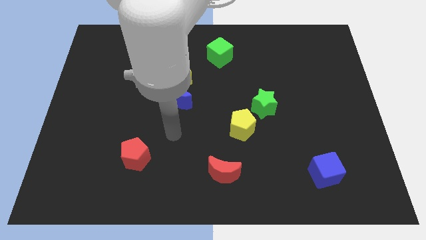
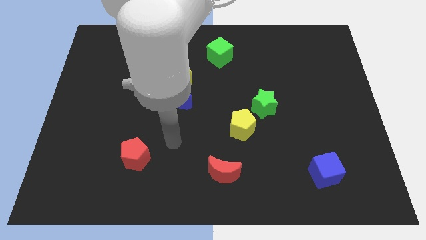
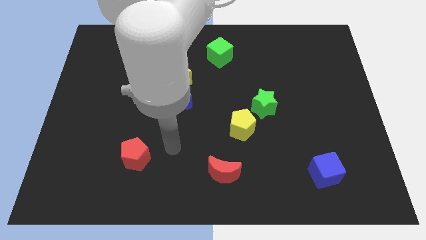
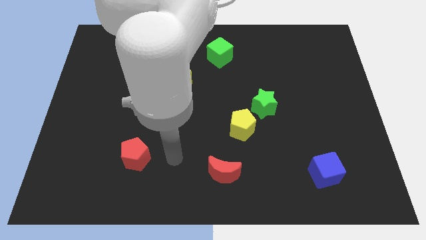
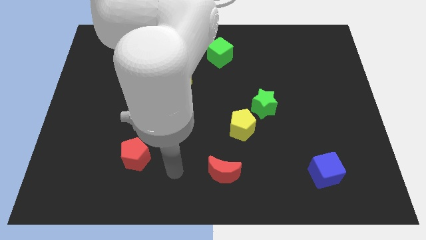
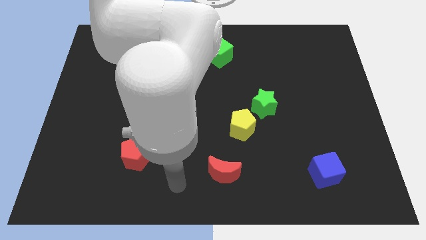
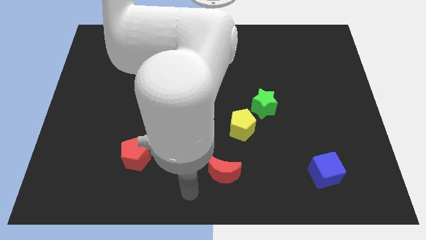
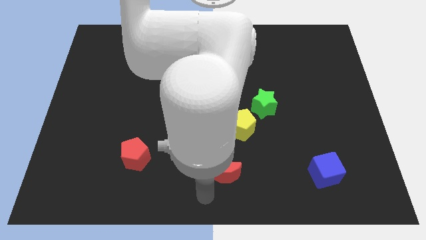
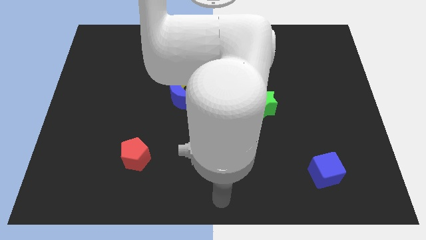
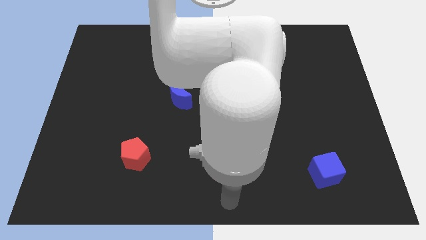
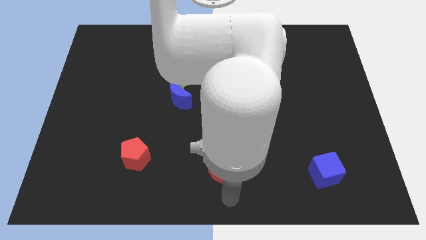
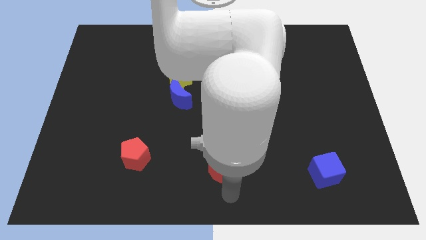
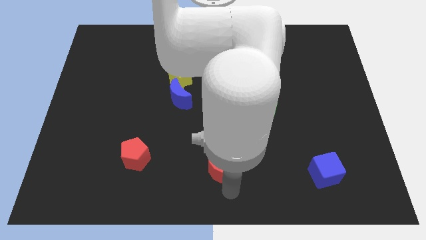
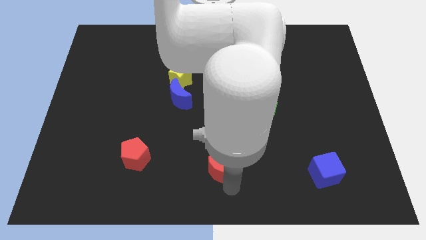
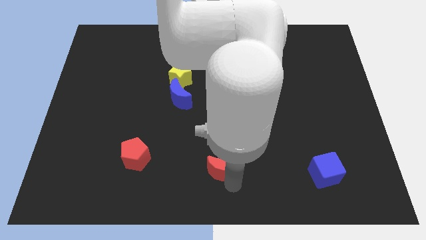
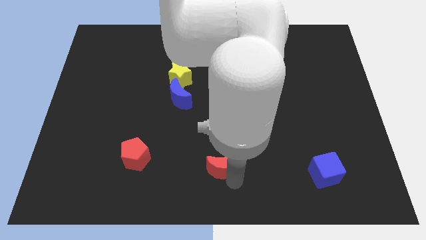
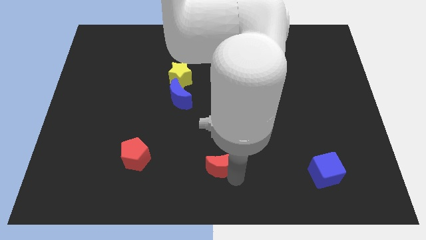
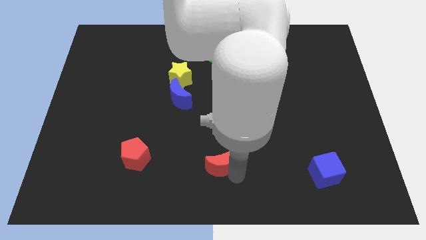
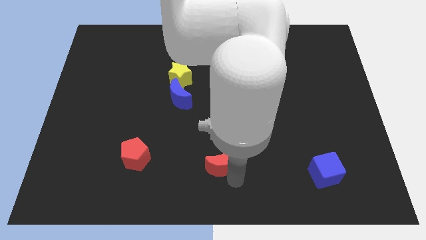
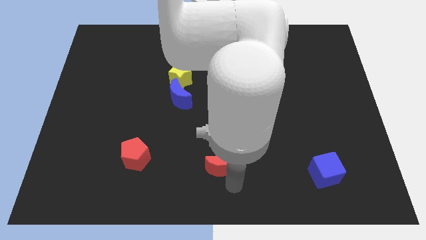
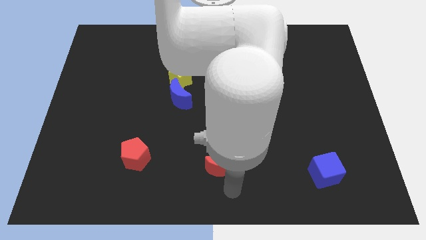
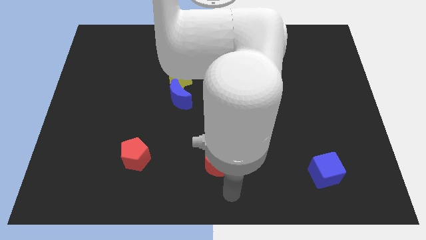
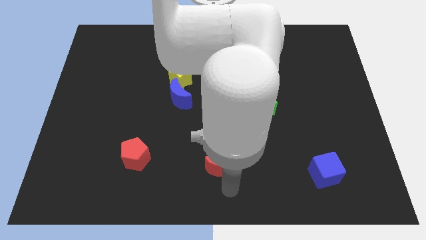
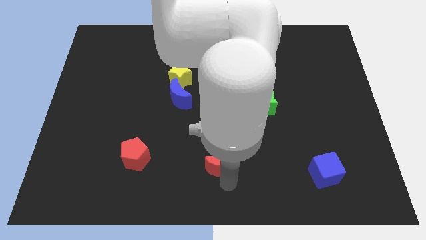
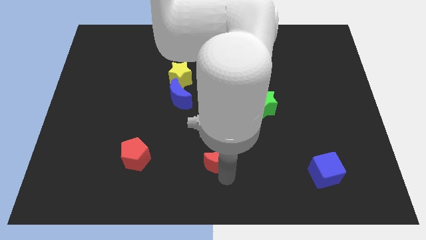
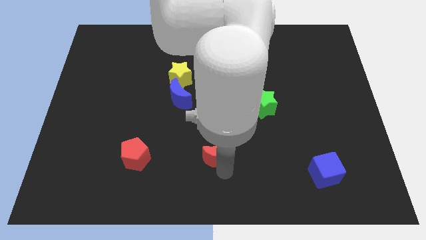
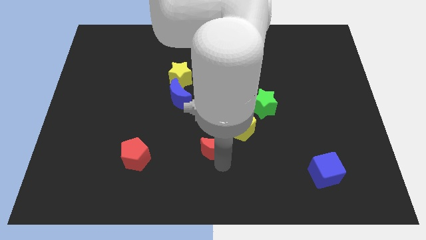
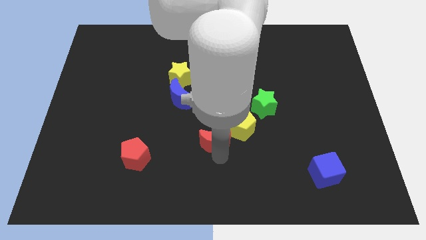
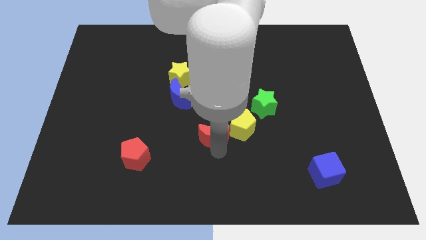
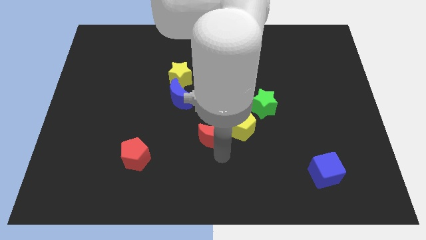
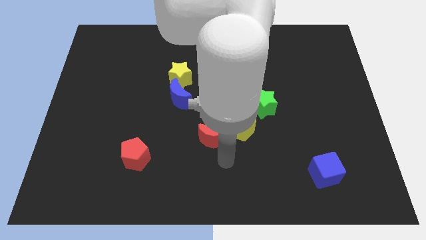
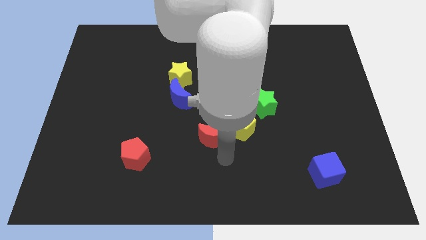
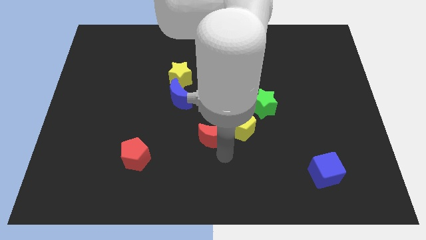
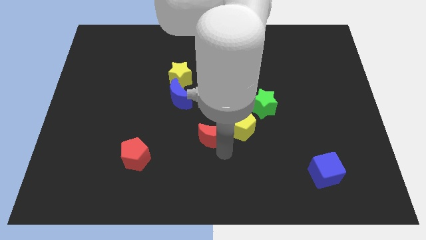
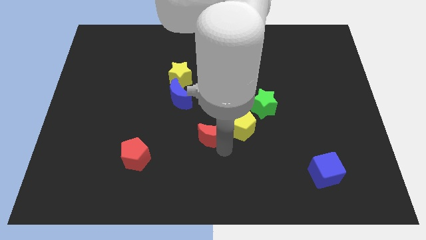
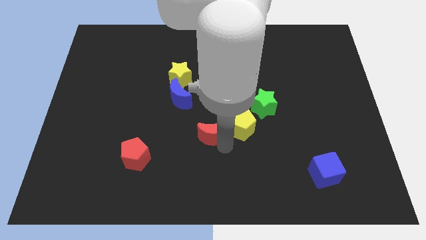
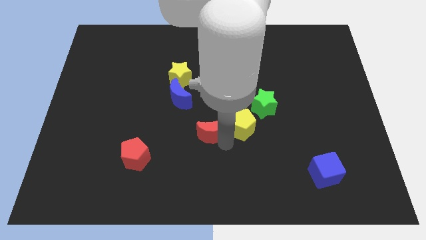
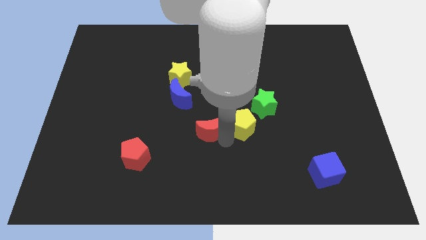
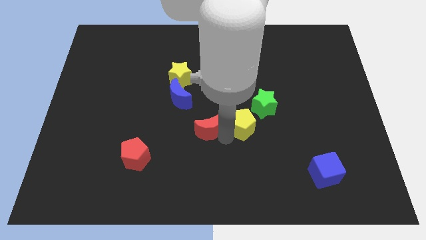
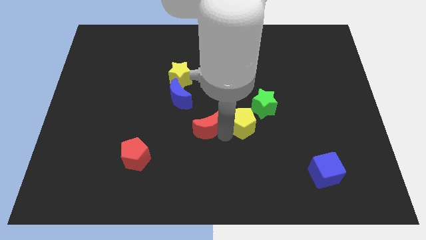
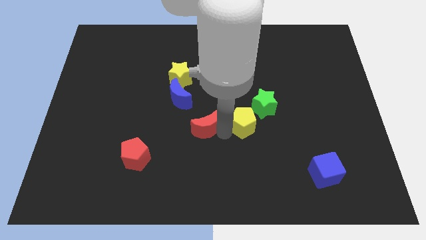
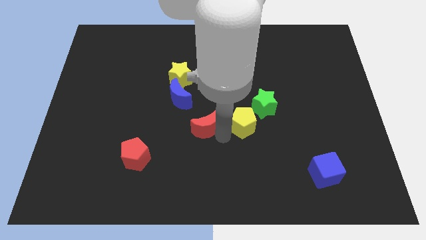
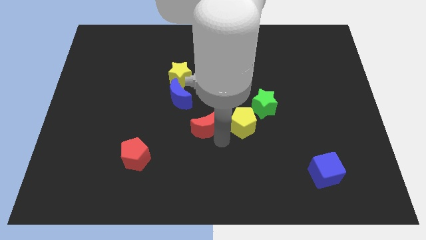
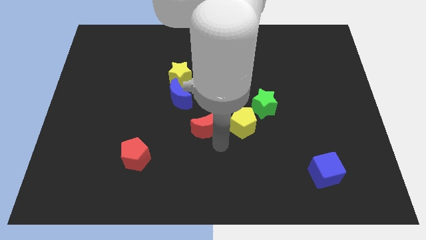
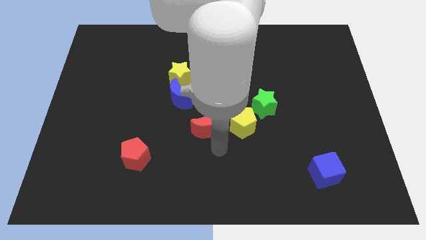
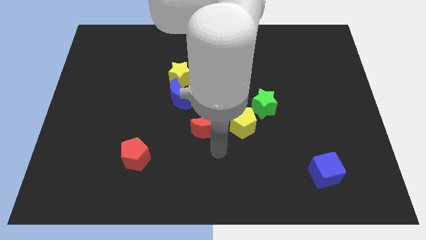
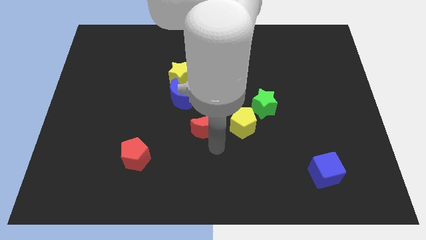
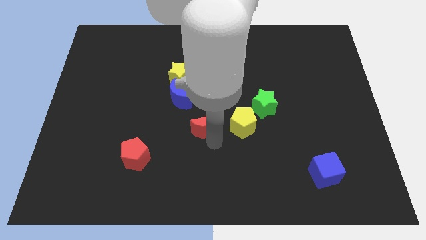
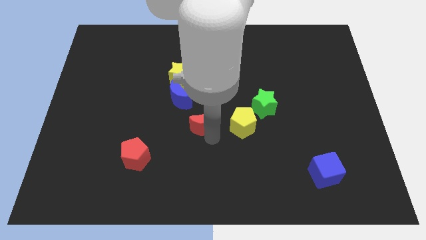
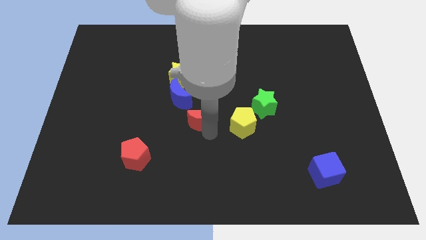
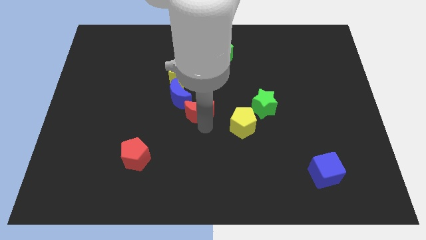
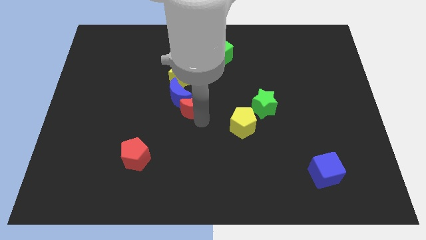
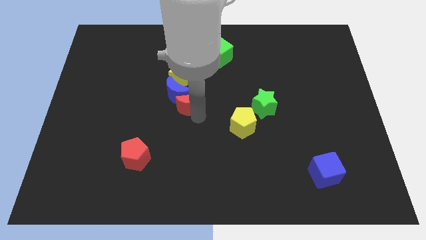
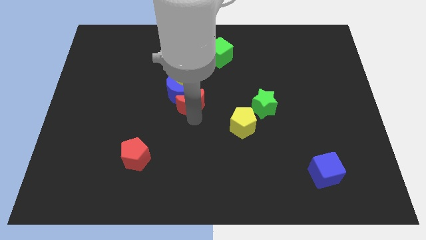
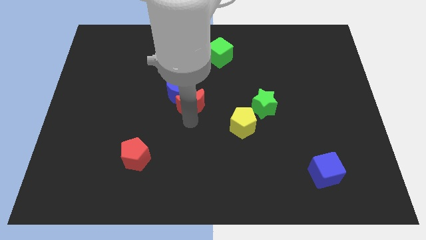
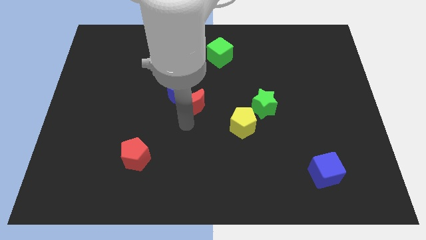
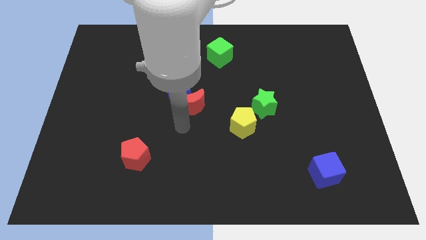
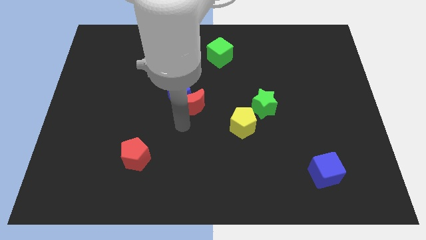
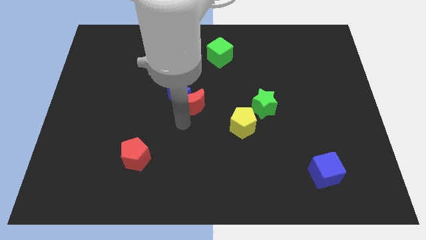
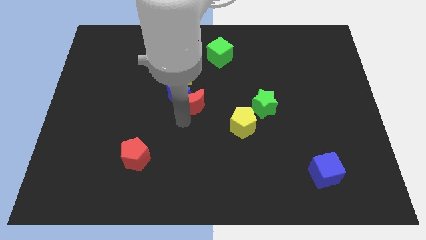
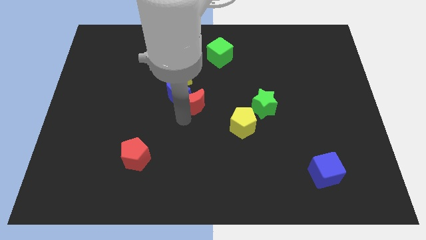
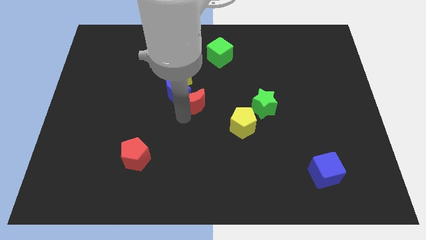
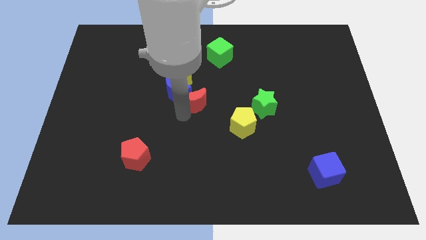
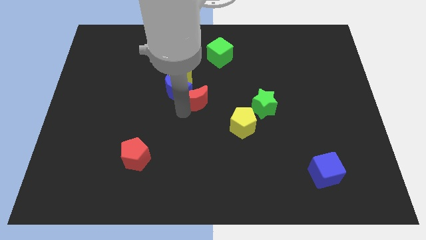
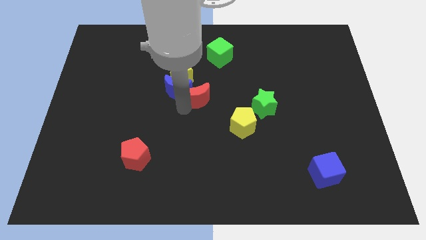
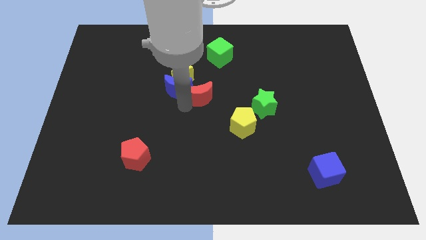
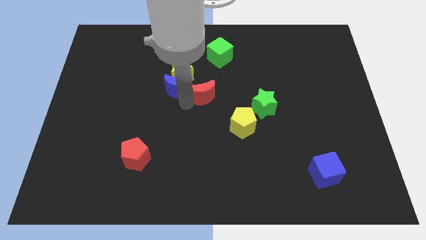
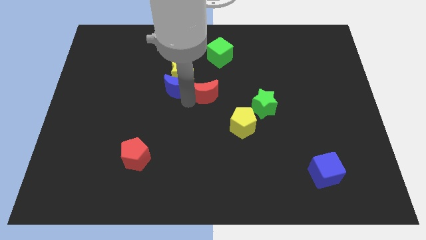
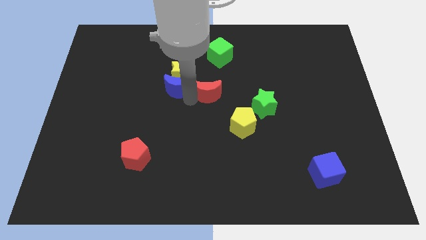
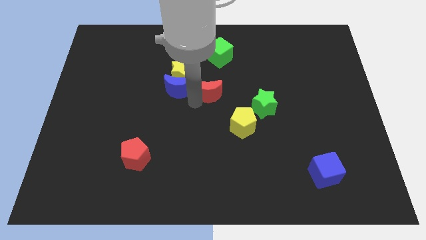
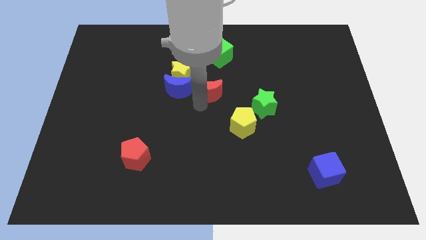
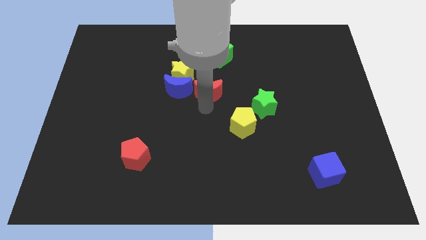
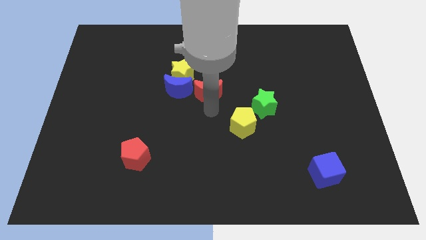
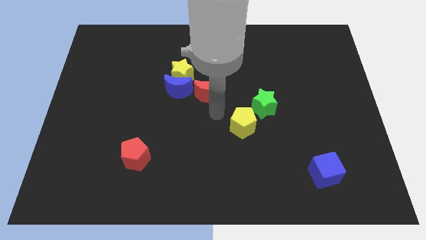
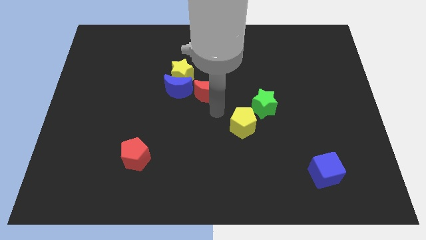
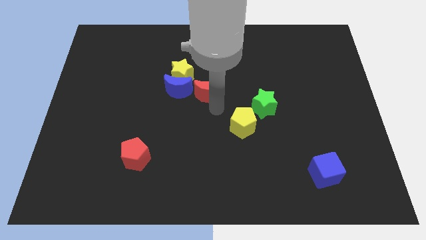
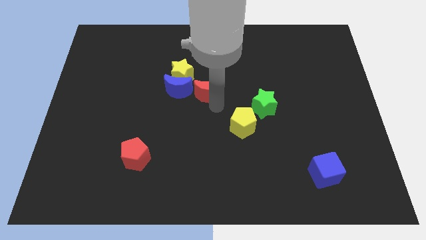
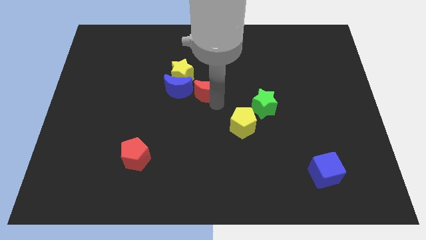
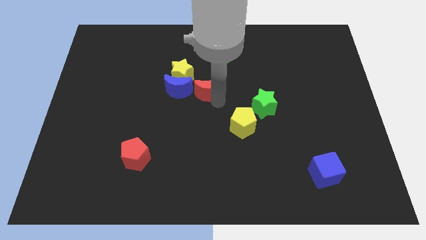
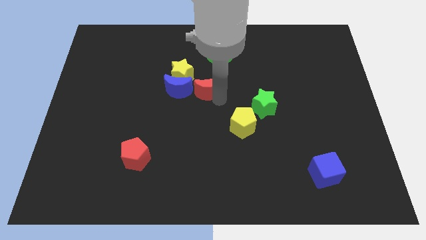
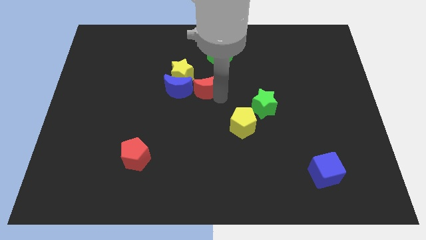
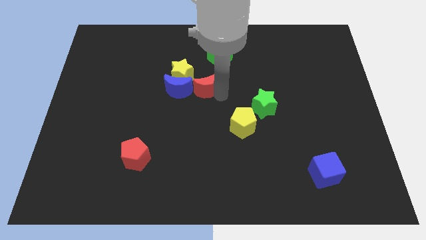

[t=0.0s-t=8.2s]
move the red moon to the top right of the blue moon

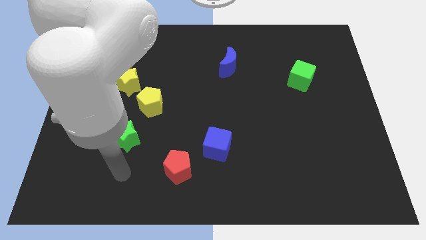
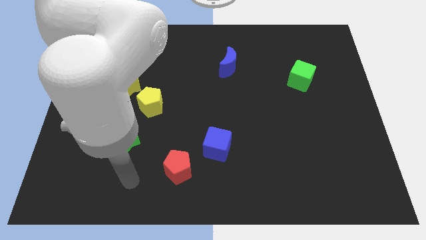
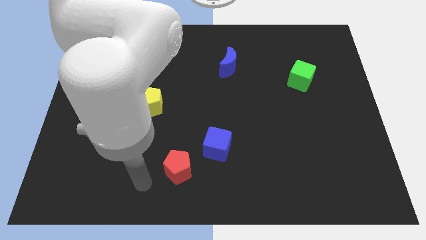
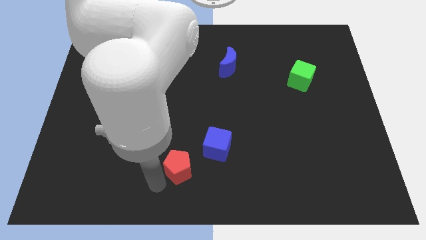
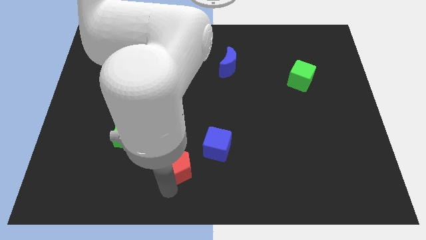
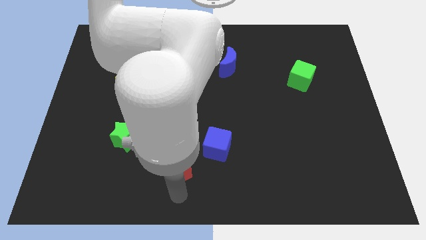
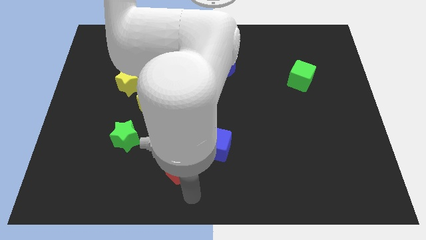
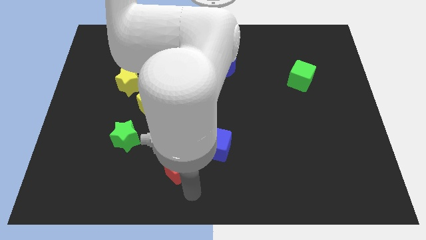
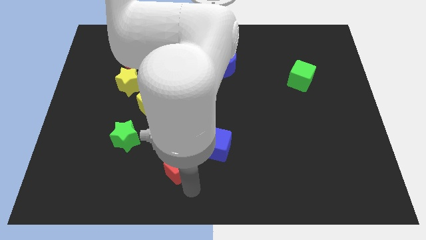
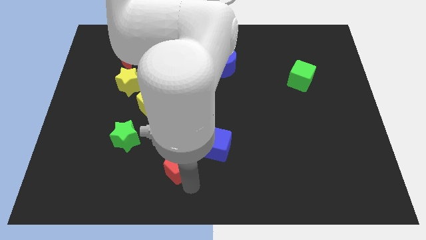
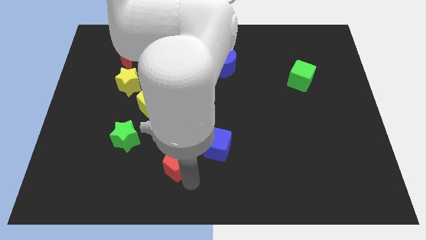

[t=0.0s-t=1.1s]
put the red pentagon left of the blue cube
